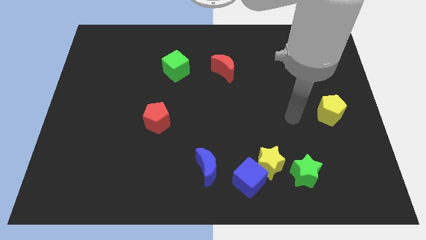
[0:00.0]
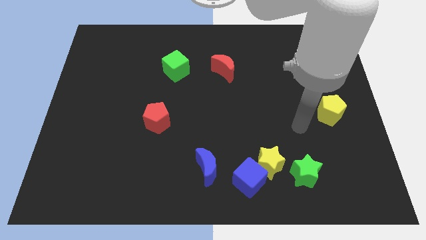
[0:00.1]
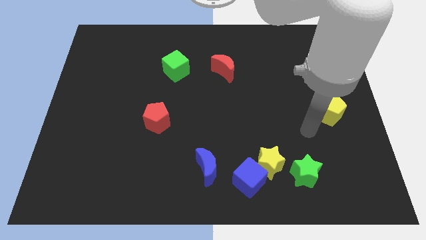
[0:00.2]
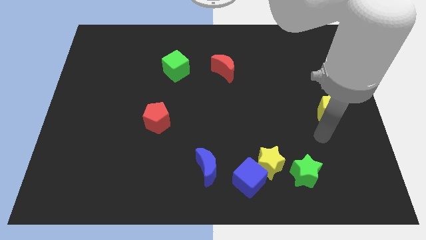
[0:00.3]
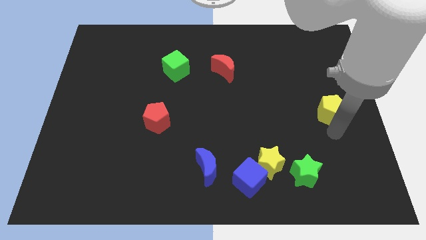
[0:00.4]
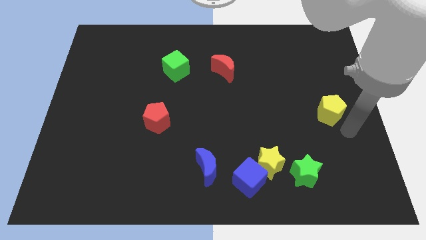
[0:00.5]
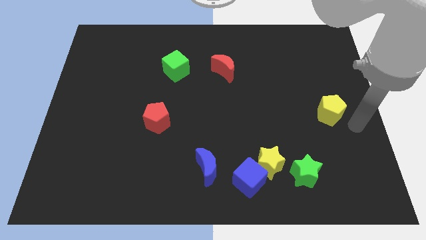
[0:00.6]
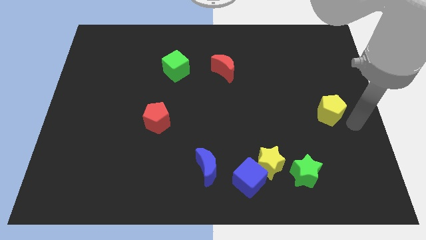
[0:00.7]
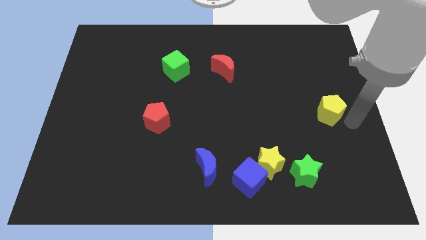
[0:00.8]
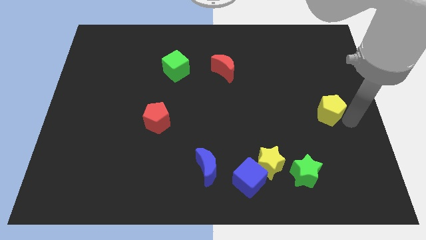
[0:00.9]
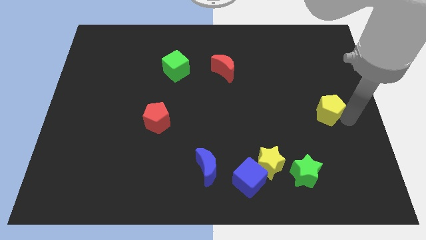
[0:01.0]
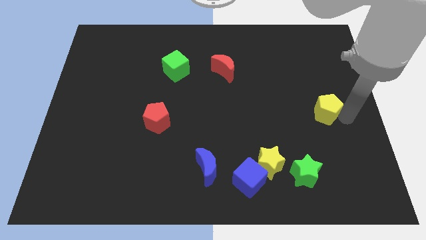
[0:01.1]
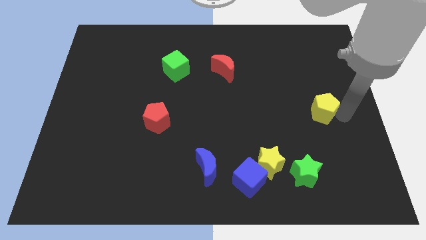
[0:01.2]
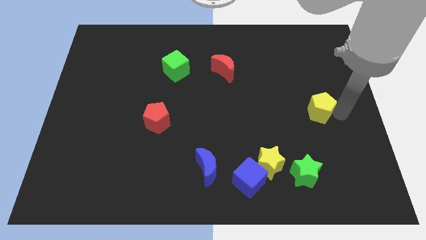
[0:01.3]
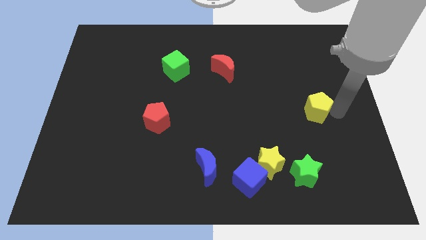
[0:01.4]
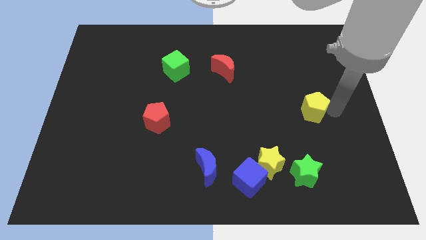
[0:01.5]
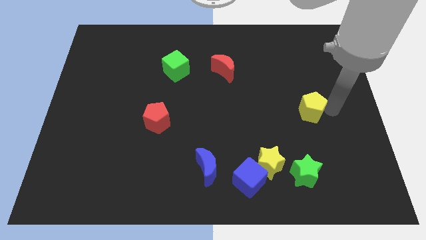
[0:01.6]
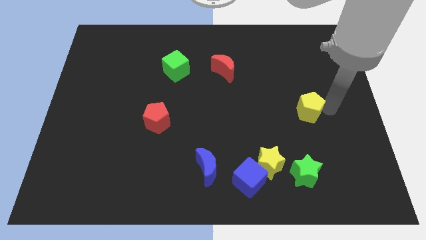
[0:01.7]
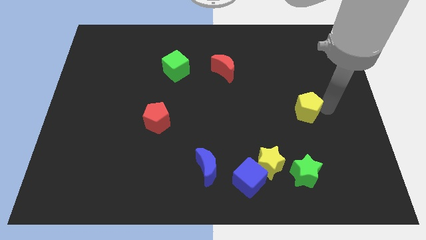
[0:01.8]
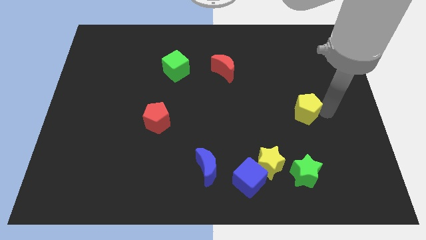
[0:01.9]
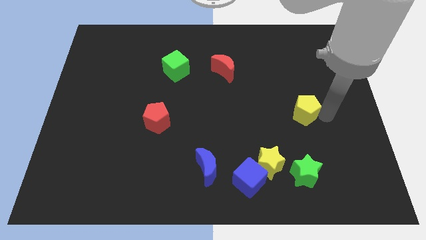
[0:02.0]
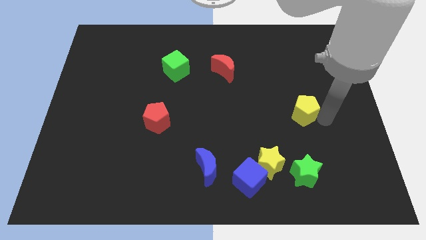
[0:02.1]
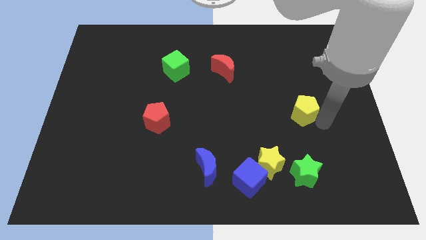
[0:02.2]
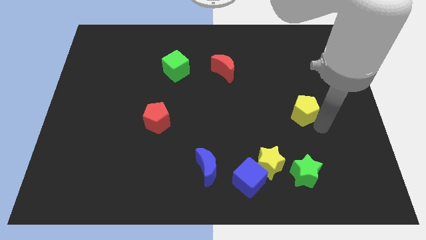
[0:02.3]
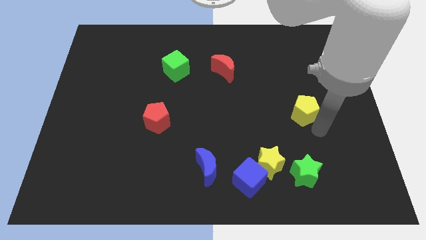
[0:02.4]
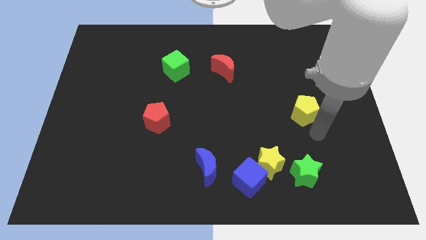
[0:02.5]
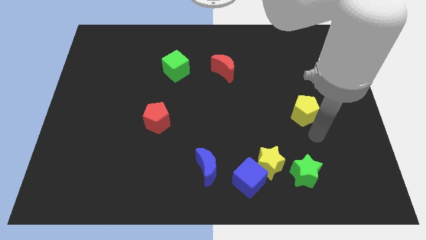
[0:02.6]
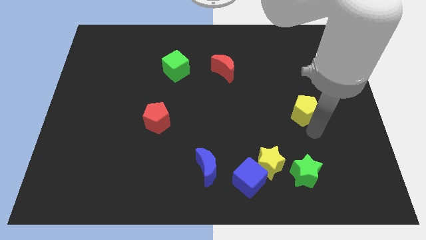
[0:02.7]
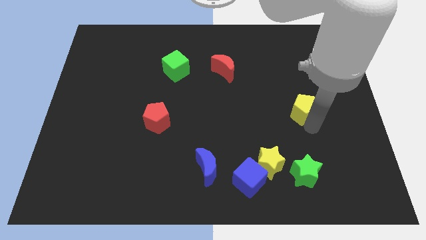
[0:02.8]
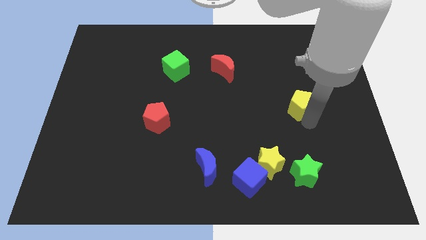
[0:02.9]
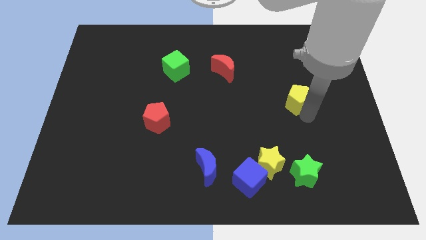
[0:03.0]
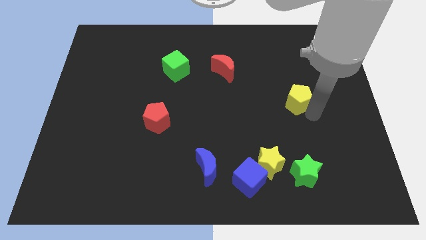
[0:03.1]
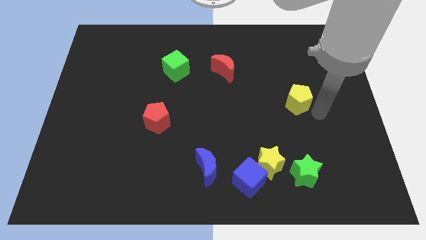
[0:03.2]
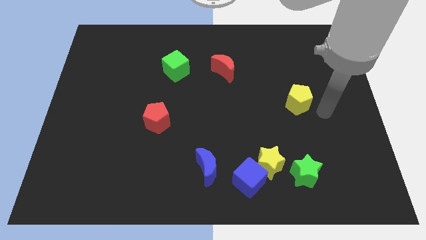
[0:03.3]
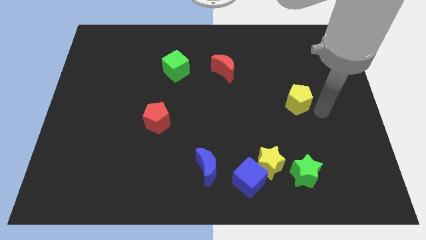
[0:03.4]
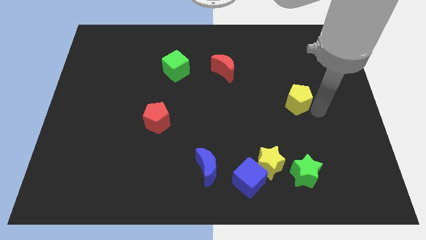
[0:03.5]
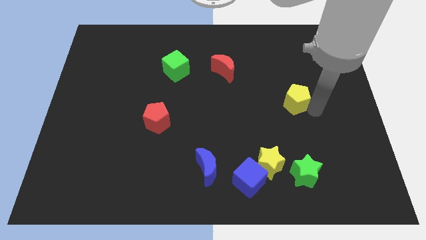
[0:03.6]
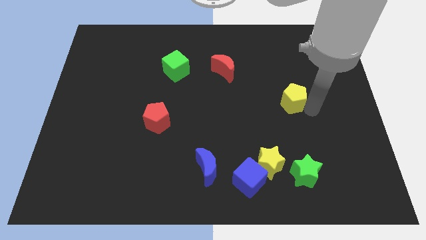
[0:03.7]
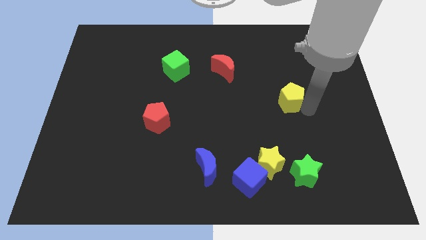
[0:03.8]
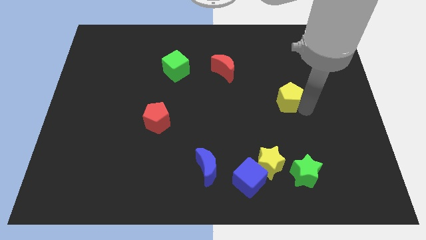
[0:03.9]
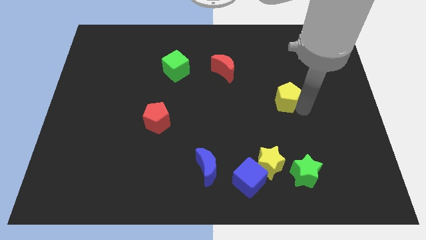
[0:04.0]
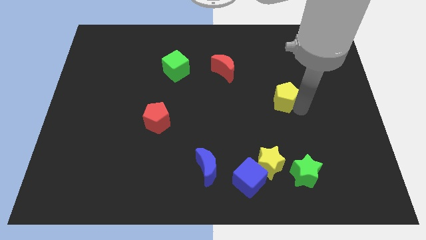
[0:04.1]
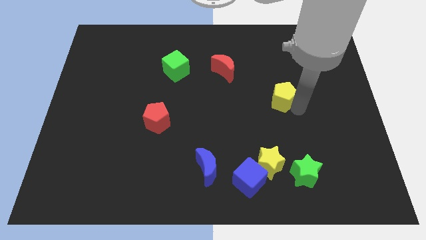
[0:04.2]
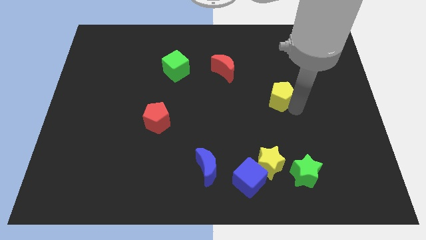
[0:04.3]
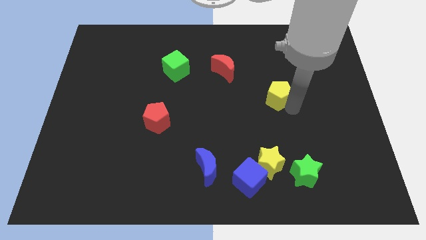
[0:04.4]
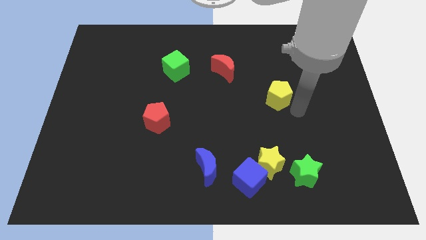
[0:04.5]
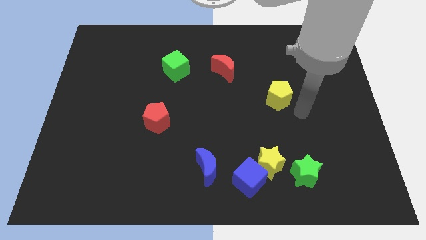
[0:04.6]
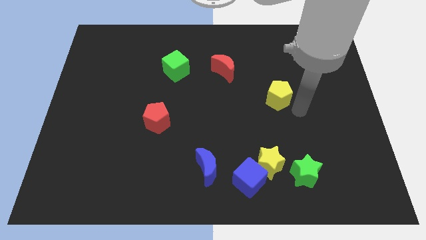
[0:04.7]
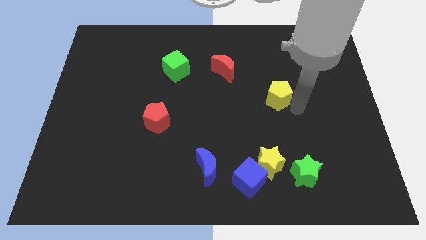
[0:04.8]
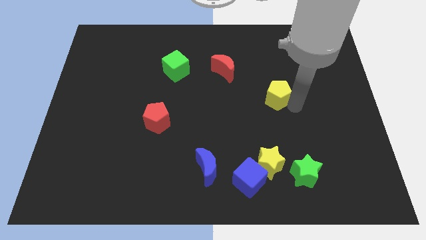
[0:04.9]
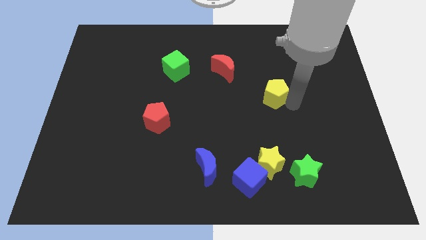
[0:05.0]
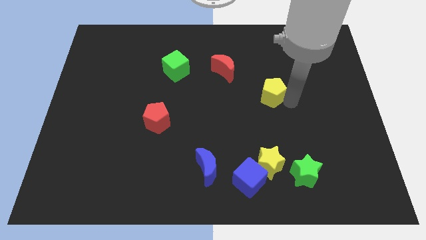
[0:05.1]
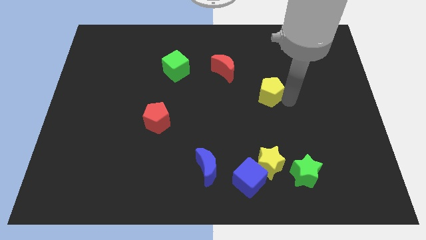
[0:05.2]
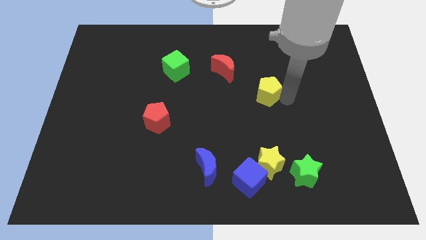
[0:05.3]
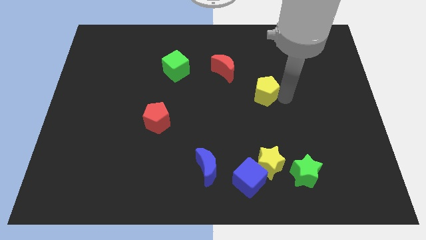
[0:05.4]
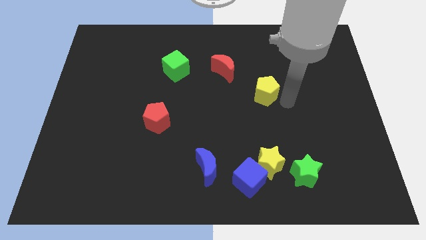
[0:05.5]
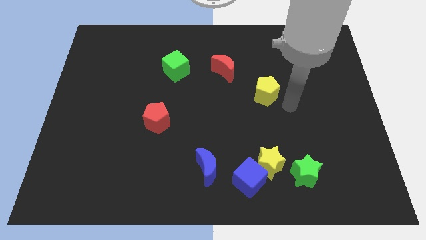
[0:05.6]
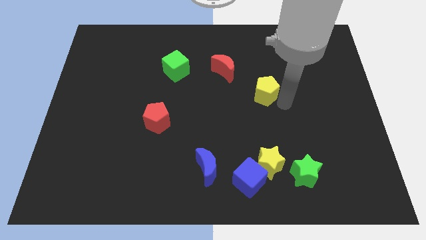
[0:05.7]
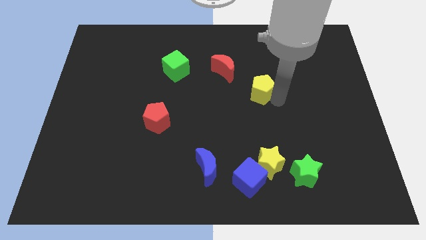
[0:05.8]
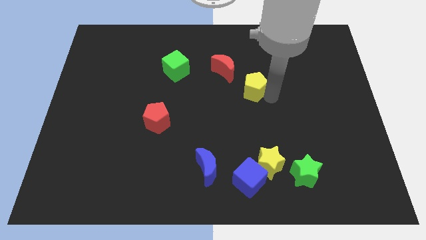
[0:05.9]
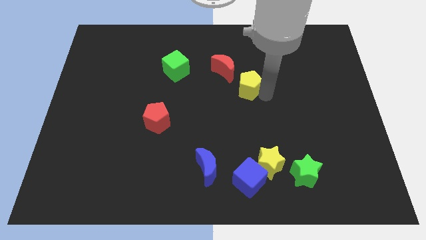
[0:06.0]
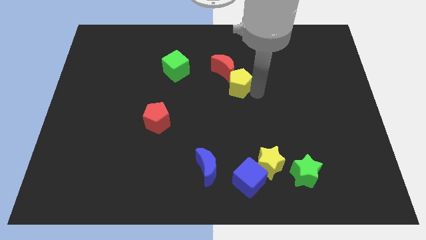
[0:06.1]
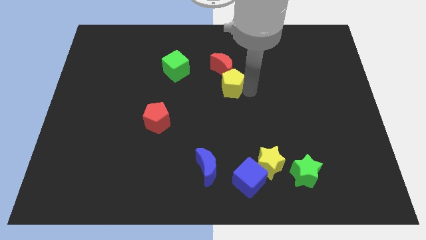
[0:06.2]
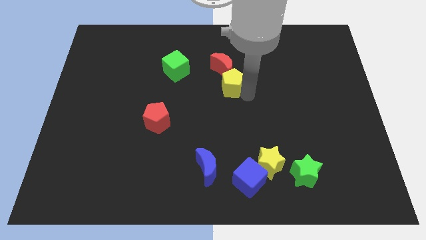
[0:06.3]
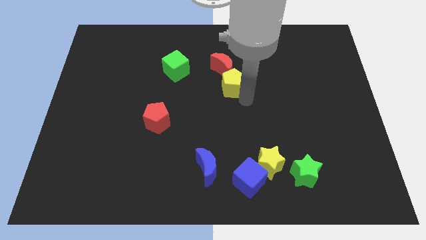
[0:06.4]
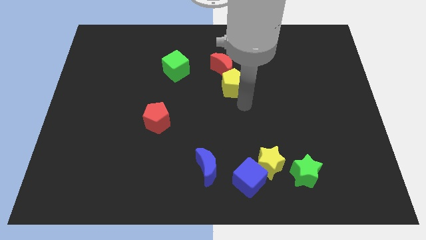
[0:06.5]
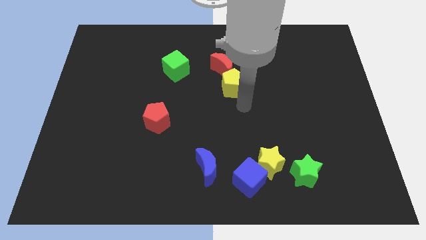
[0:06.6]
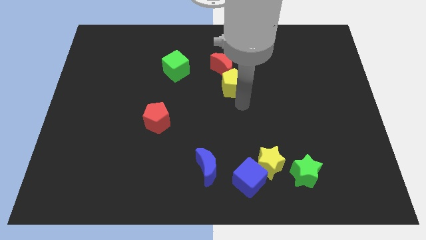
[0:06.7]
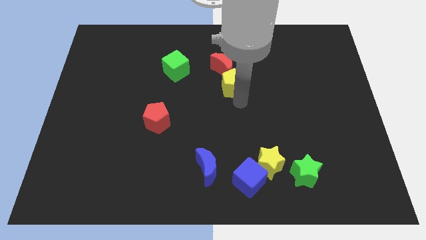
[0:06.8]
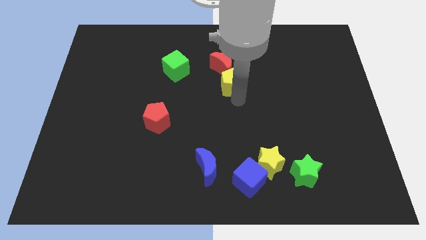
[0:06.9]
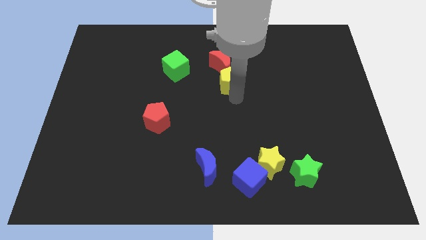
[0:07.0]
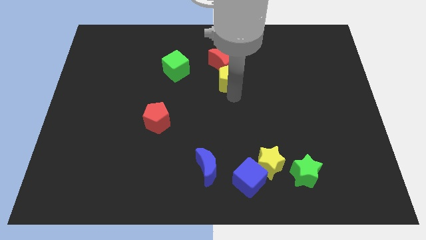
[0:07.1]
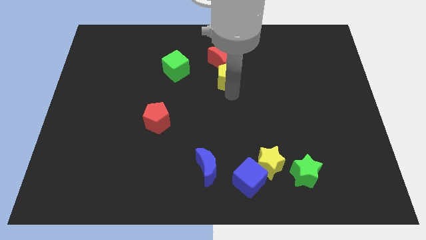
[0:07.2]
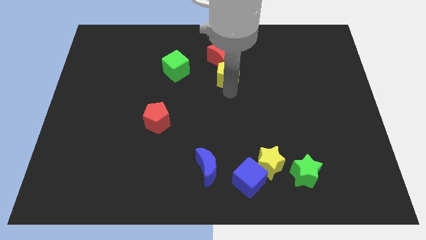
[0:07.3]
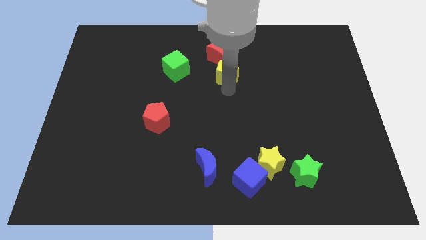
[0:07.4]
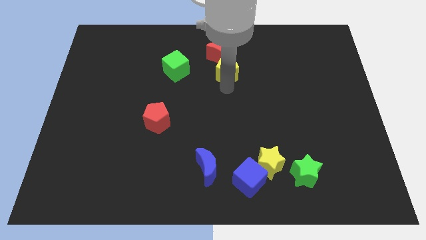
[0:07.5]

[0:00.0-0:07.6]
push the yellow pentagon towards the red moon

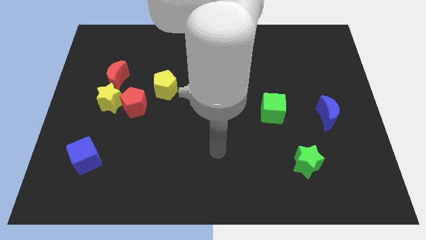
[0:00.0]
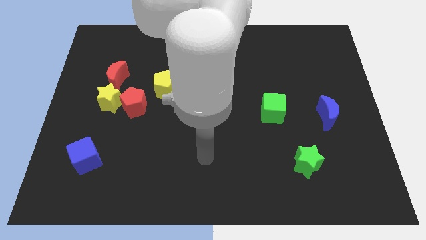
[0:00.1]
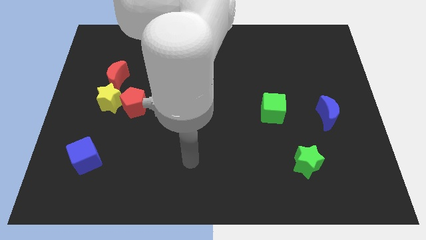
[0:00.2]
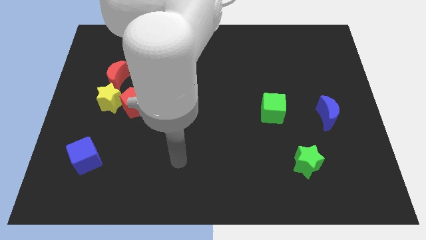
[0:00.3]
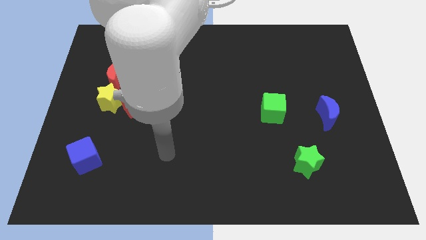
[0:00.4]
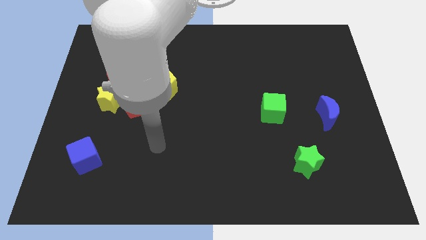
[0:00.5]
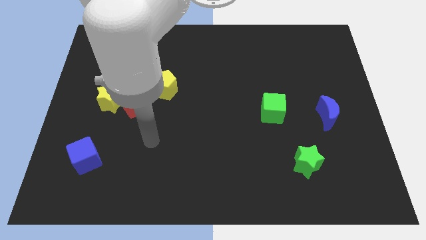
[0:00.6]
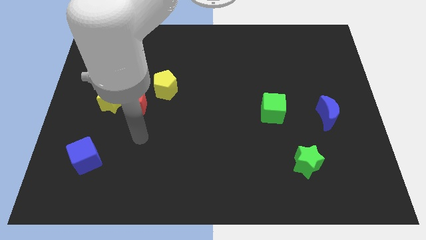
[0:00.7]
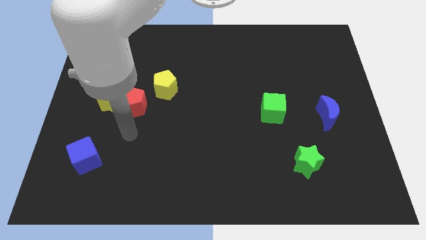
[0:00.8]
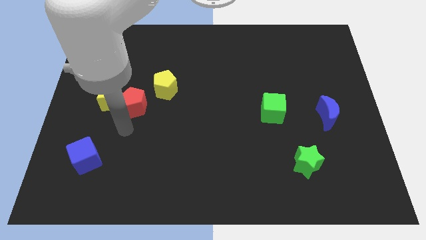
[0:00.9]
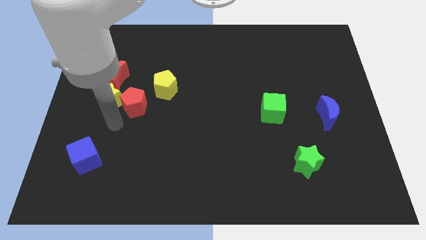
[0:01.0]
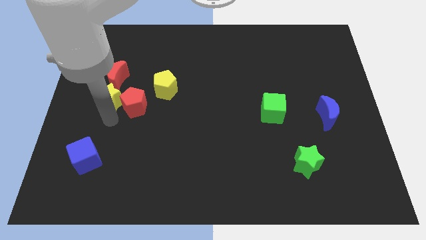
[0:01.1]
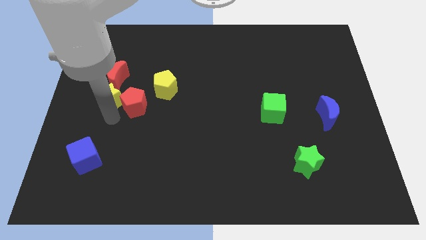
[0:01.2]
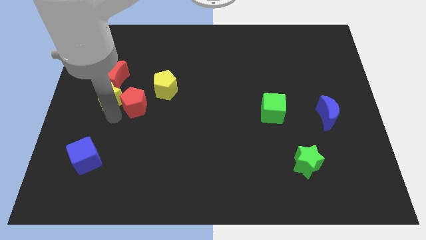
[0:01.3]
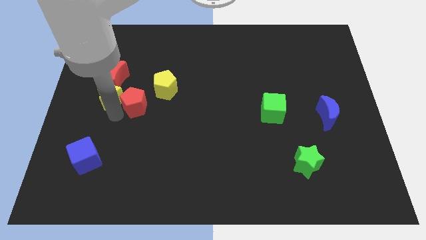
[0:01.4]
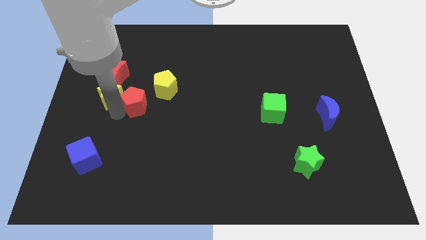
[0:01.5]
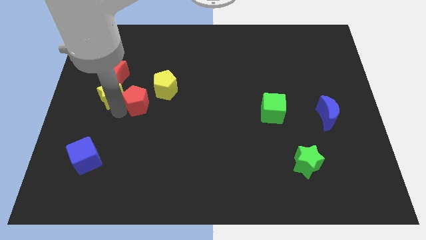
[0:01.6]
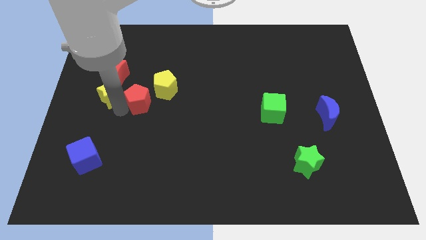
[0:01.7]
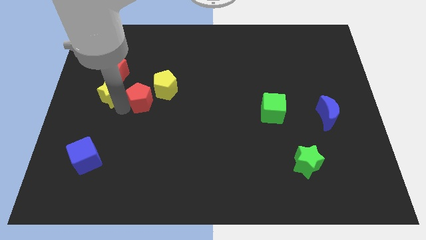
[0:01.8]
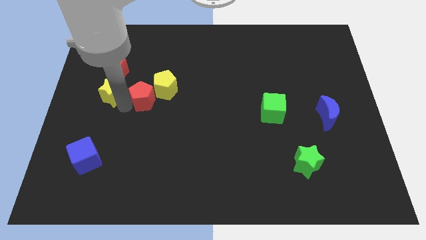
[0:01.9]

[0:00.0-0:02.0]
push the red pentagon to the yellow pentagon
